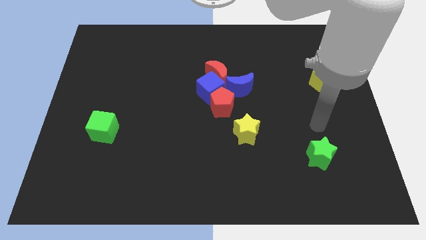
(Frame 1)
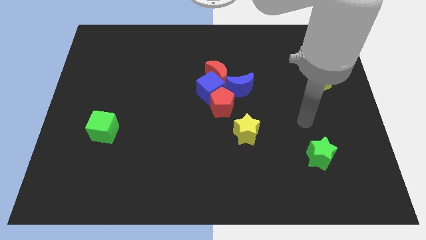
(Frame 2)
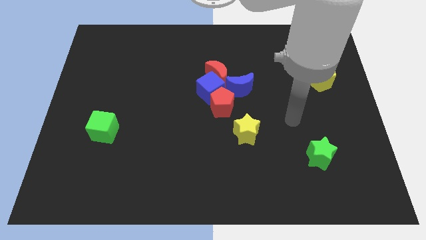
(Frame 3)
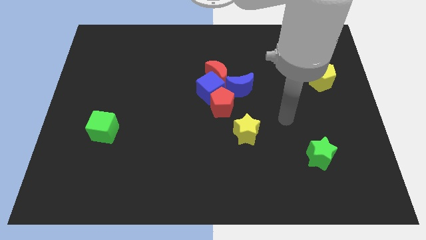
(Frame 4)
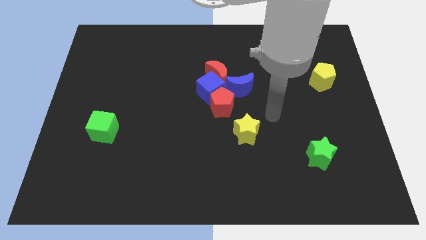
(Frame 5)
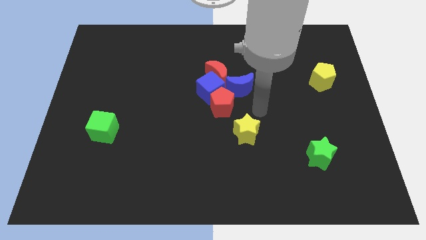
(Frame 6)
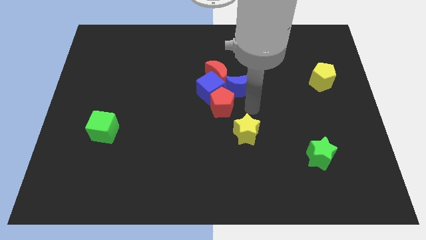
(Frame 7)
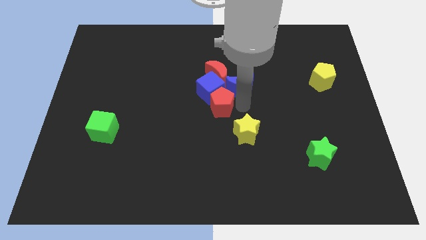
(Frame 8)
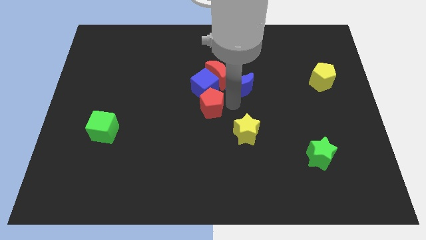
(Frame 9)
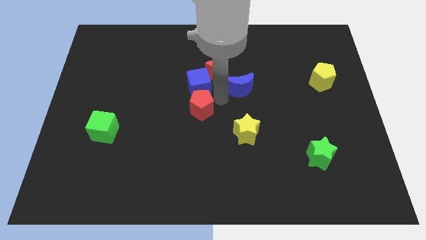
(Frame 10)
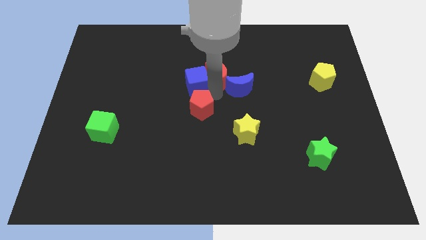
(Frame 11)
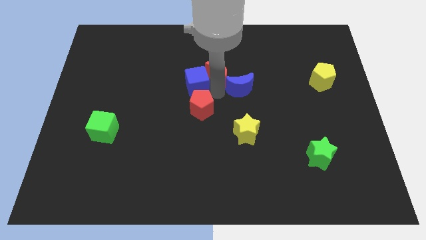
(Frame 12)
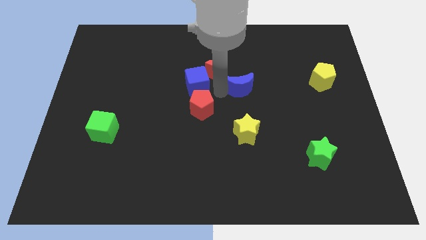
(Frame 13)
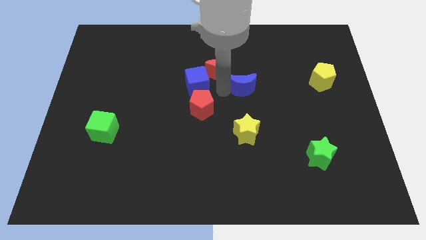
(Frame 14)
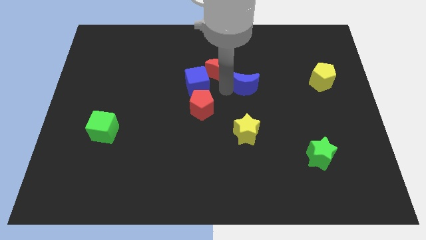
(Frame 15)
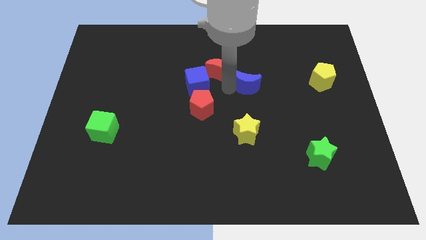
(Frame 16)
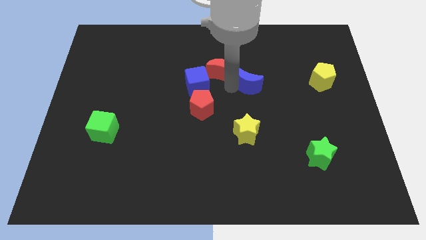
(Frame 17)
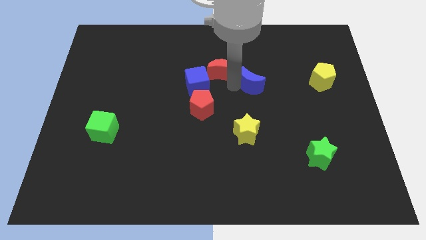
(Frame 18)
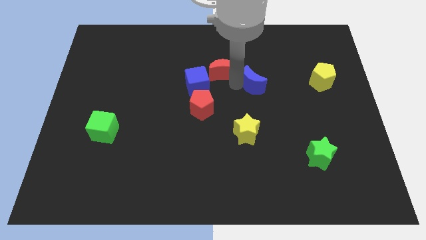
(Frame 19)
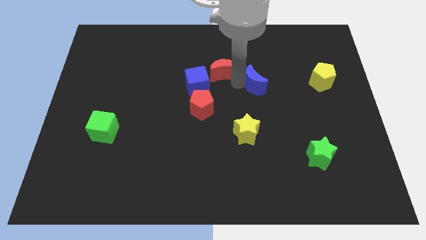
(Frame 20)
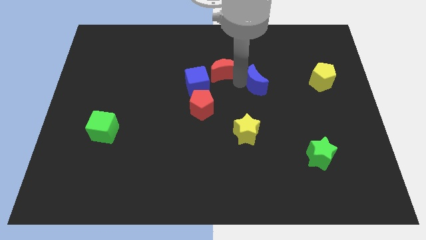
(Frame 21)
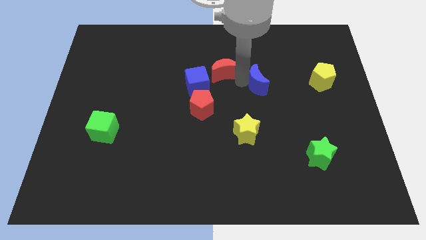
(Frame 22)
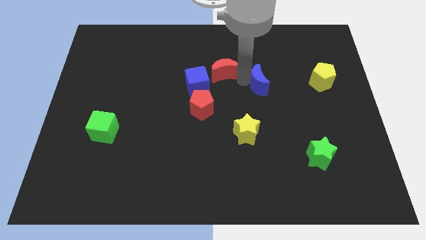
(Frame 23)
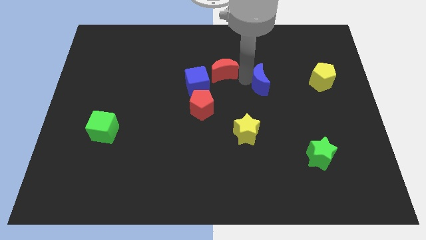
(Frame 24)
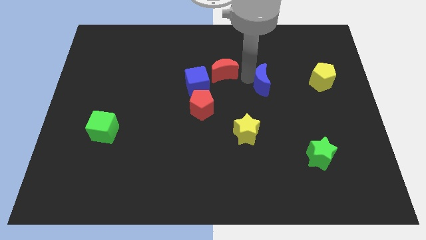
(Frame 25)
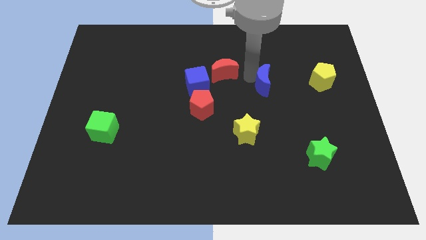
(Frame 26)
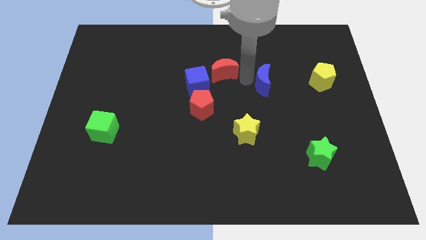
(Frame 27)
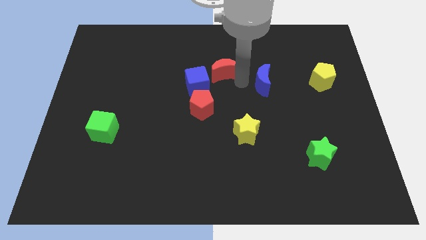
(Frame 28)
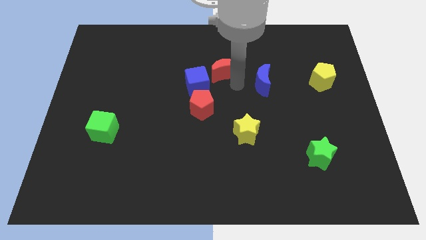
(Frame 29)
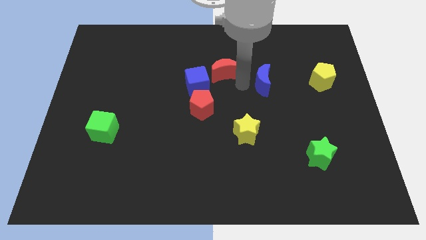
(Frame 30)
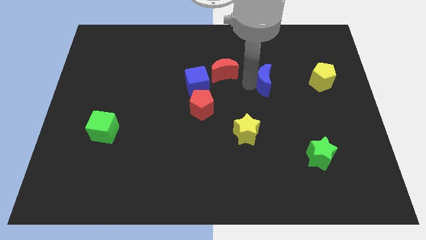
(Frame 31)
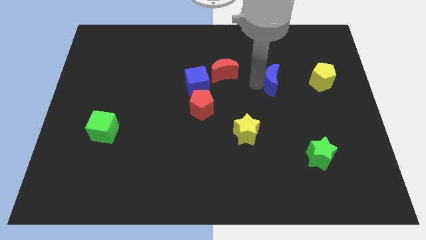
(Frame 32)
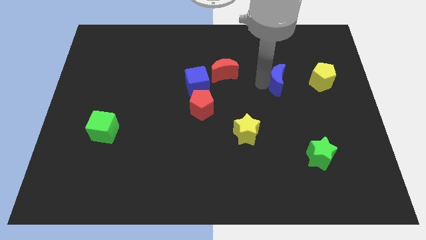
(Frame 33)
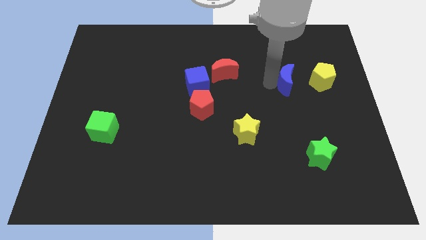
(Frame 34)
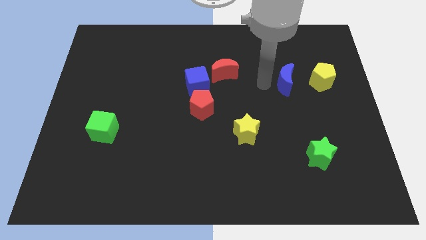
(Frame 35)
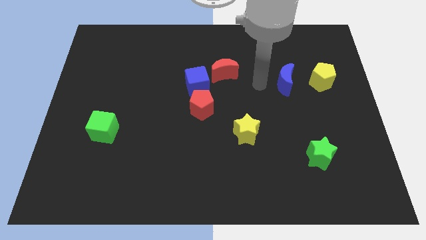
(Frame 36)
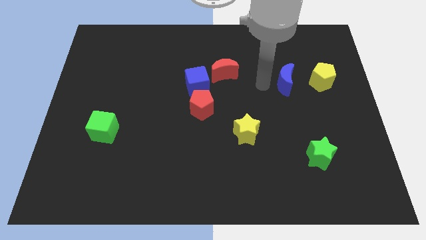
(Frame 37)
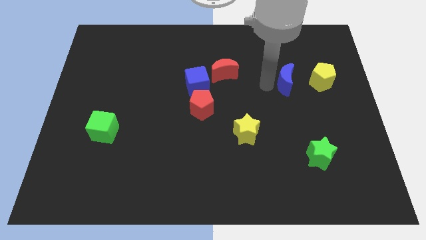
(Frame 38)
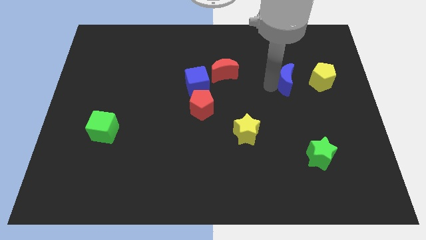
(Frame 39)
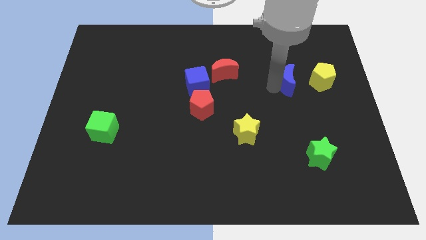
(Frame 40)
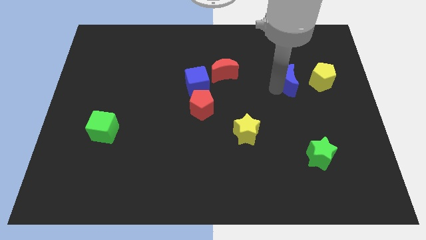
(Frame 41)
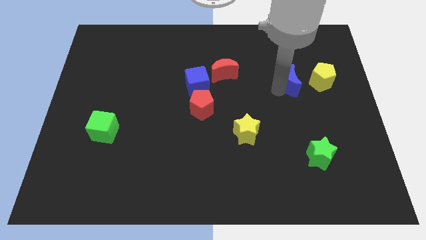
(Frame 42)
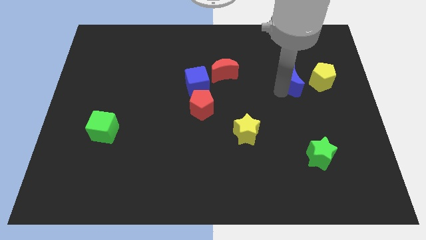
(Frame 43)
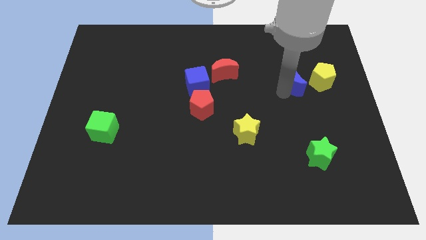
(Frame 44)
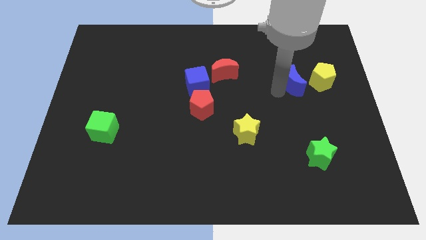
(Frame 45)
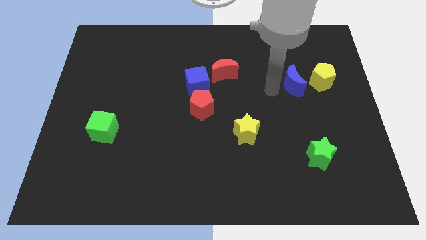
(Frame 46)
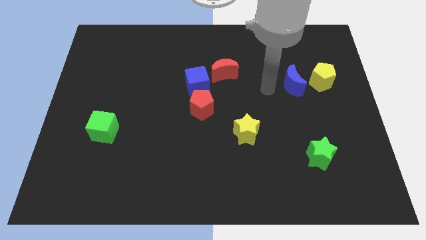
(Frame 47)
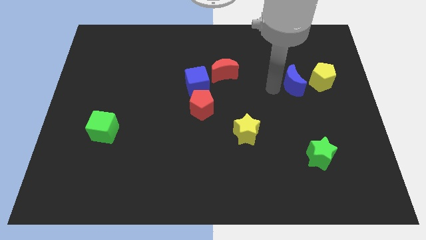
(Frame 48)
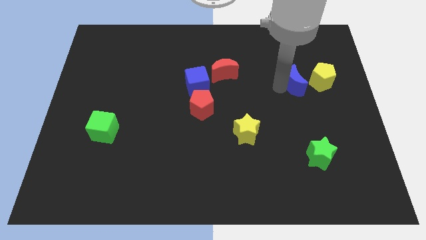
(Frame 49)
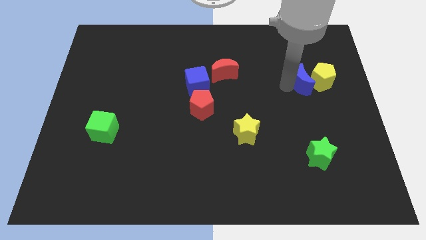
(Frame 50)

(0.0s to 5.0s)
move the blue moon close to the yellow pentagon

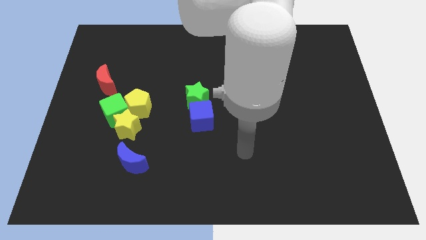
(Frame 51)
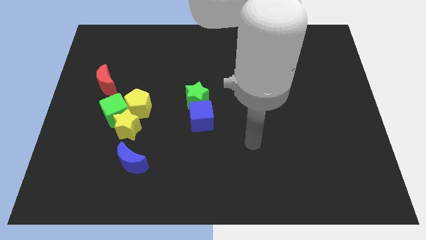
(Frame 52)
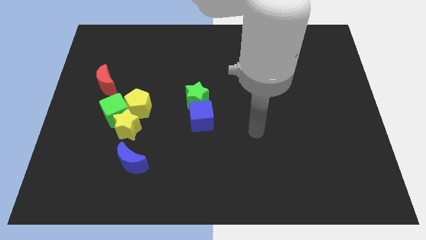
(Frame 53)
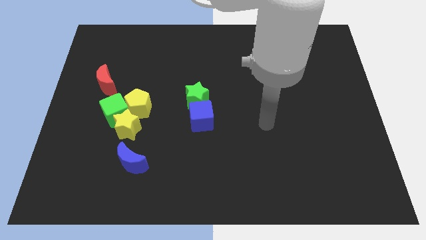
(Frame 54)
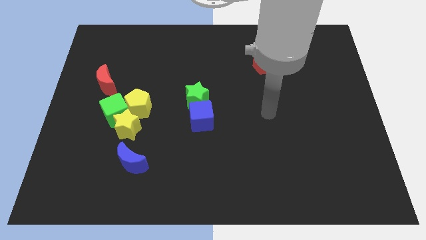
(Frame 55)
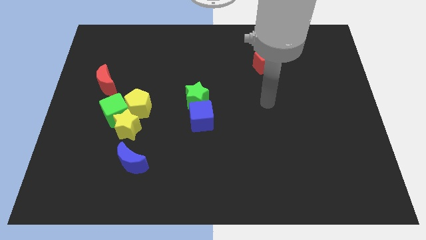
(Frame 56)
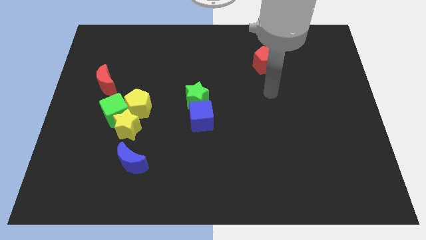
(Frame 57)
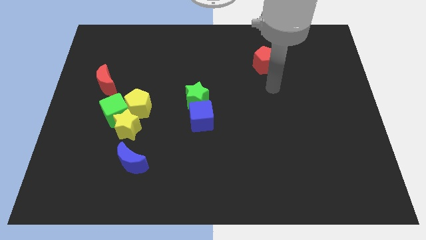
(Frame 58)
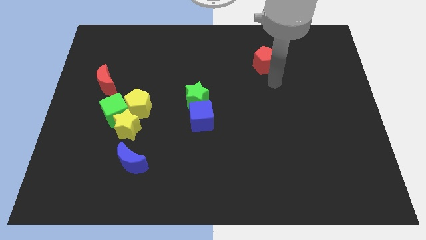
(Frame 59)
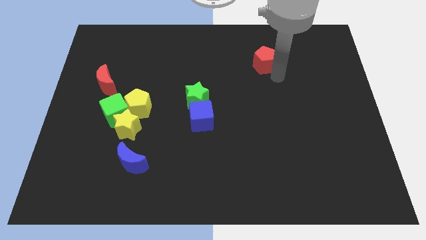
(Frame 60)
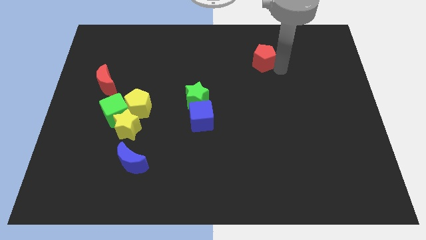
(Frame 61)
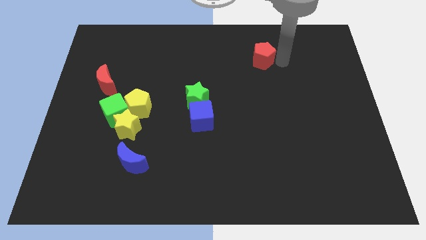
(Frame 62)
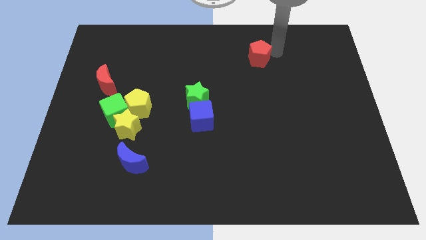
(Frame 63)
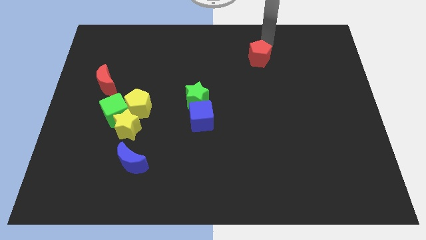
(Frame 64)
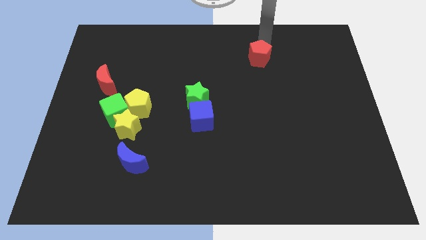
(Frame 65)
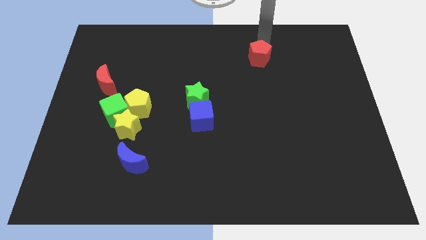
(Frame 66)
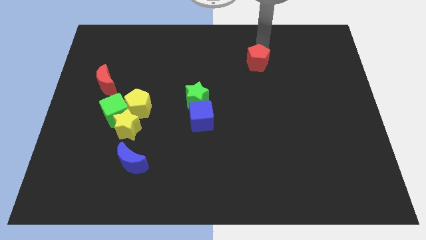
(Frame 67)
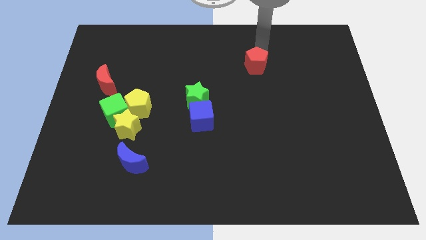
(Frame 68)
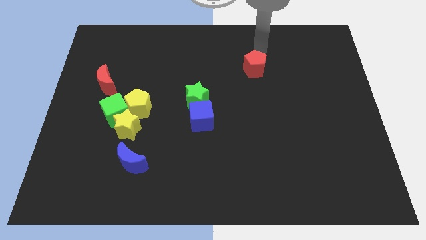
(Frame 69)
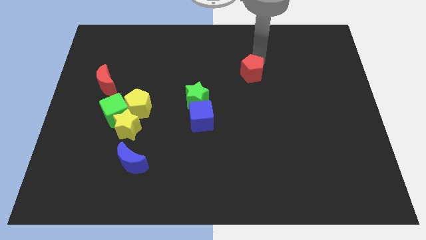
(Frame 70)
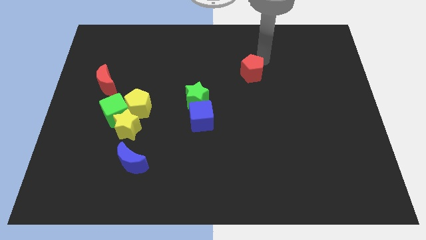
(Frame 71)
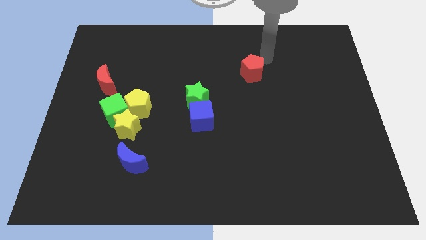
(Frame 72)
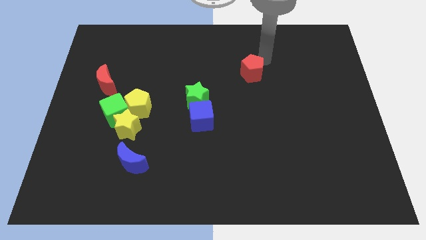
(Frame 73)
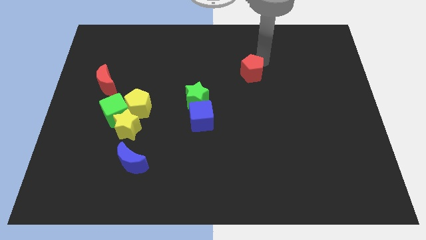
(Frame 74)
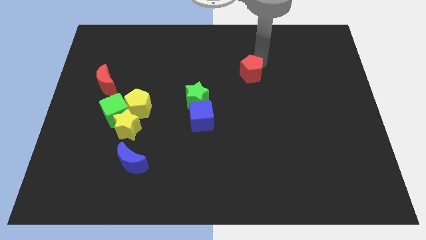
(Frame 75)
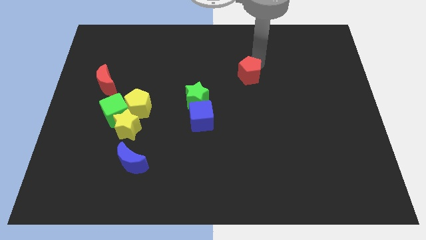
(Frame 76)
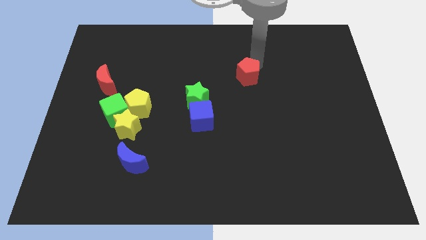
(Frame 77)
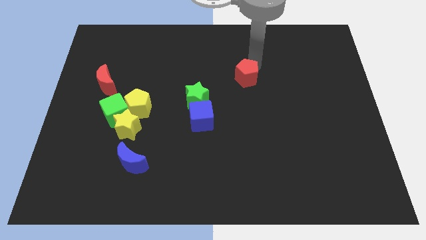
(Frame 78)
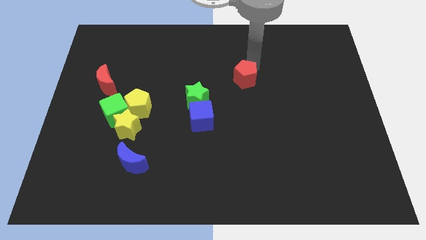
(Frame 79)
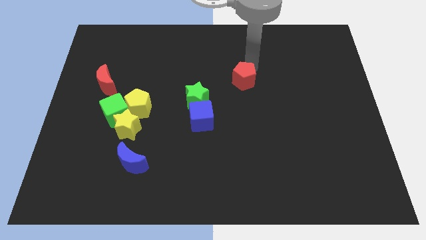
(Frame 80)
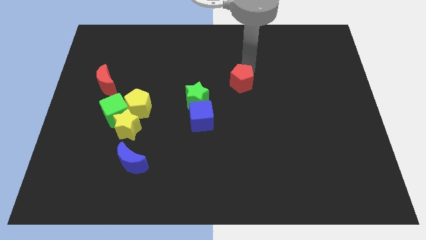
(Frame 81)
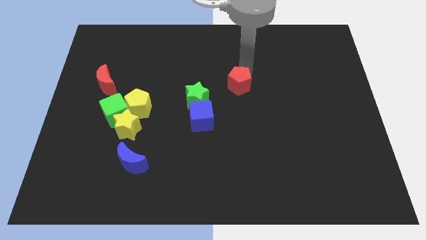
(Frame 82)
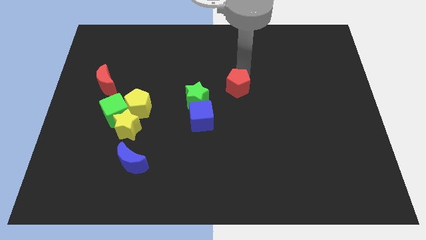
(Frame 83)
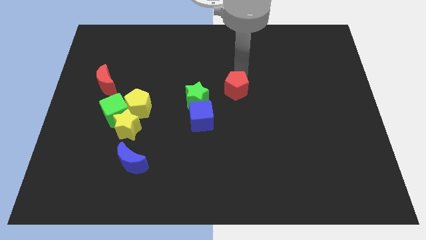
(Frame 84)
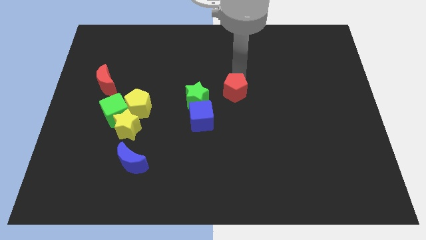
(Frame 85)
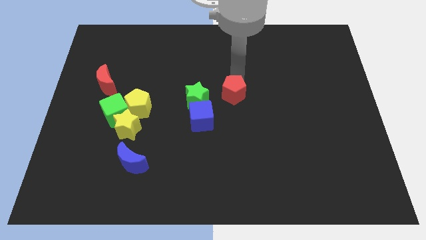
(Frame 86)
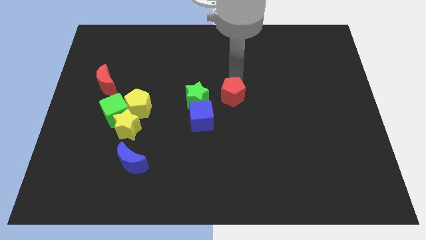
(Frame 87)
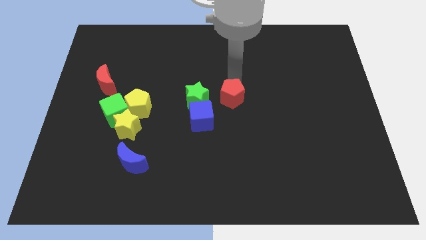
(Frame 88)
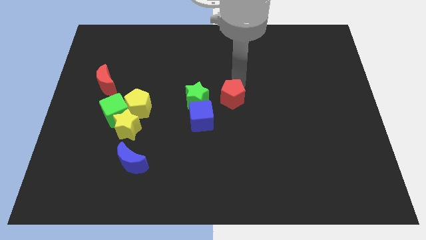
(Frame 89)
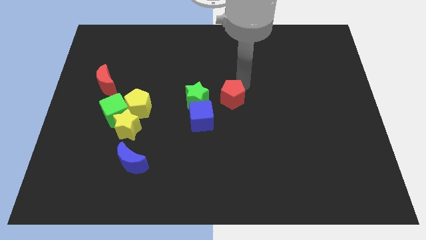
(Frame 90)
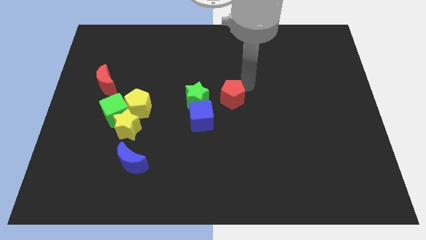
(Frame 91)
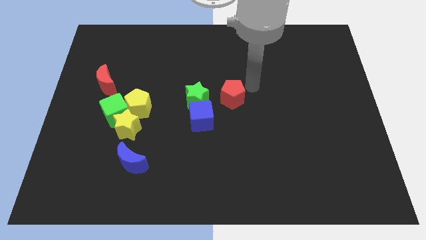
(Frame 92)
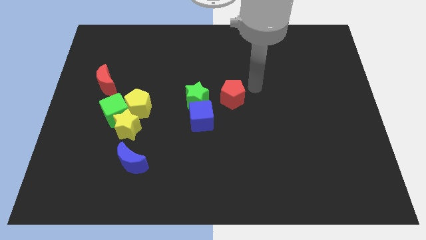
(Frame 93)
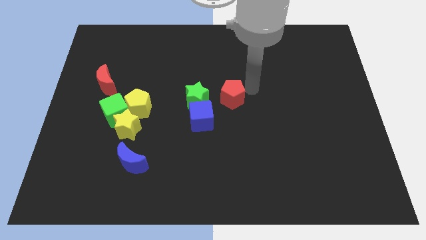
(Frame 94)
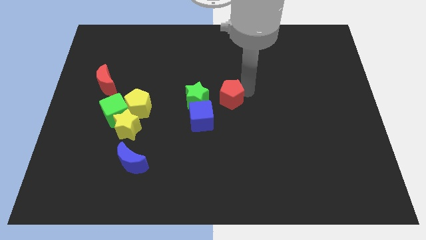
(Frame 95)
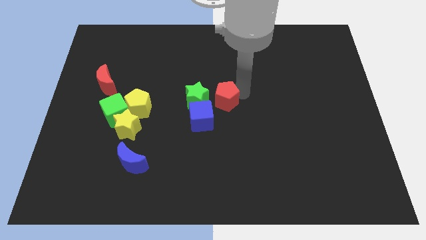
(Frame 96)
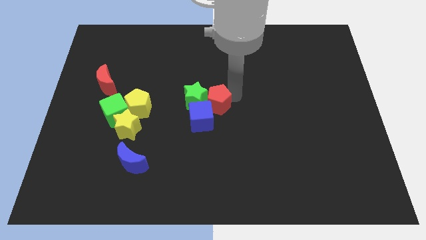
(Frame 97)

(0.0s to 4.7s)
put the red pentagon close to the blue cube
